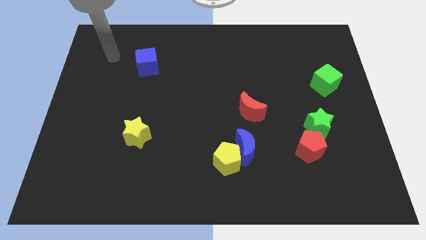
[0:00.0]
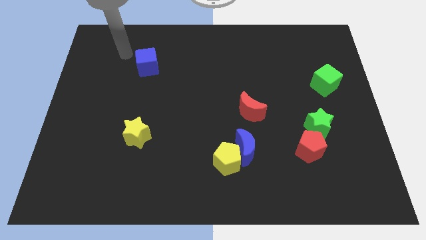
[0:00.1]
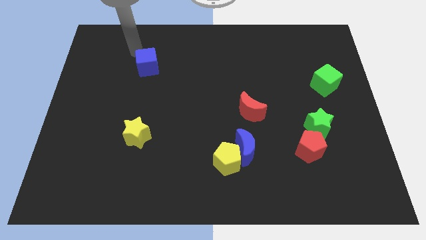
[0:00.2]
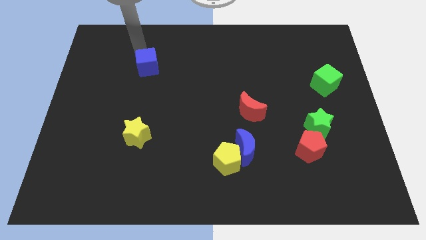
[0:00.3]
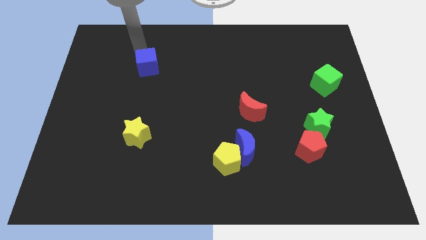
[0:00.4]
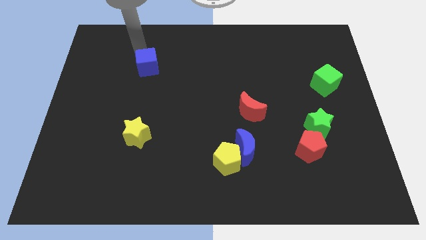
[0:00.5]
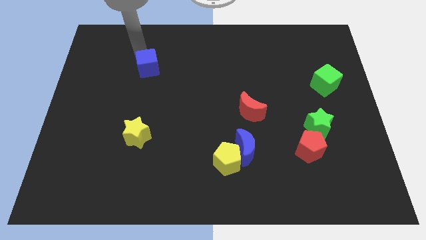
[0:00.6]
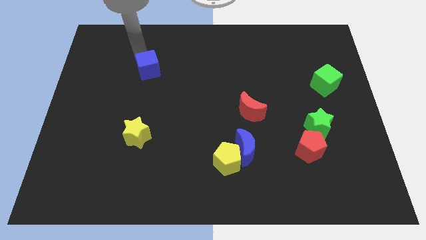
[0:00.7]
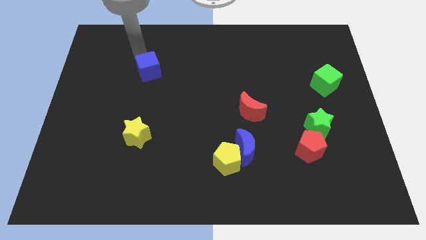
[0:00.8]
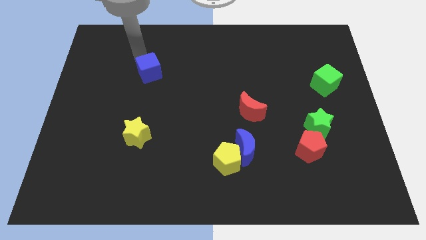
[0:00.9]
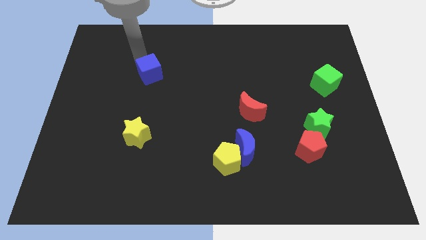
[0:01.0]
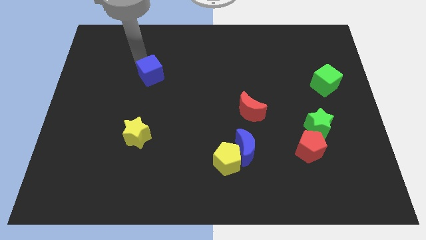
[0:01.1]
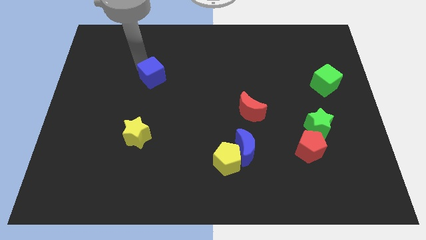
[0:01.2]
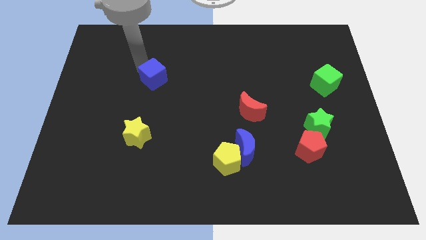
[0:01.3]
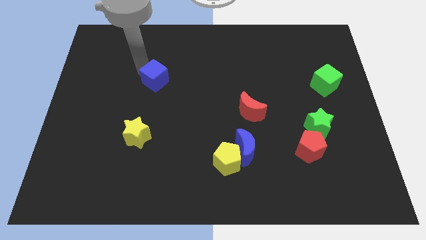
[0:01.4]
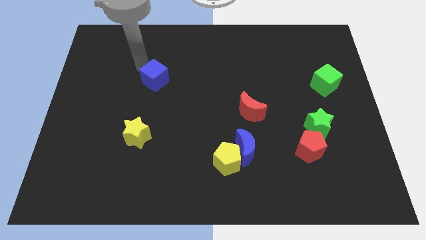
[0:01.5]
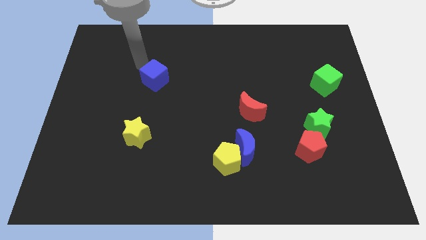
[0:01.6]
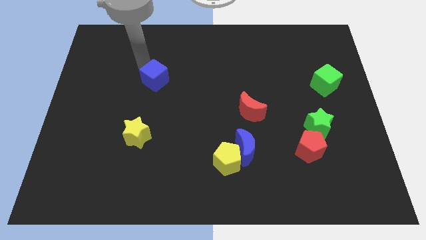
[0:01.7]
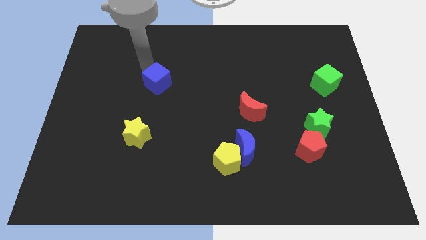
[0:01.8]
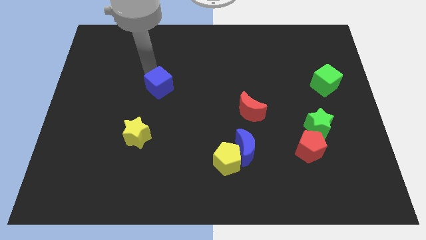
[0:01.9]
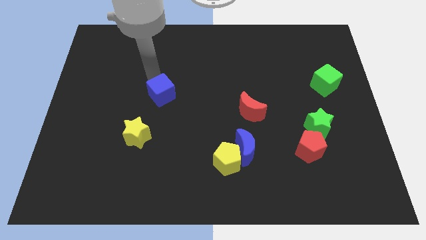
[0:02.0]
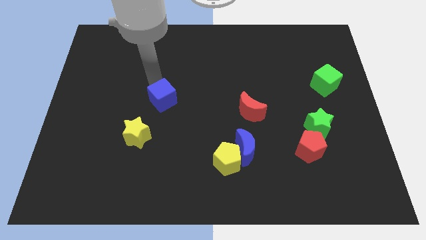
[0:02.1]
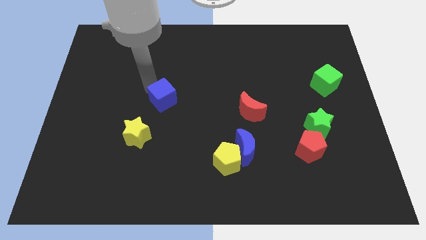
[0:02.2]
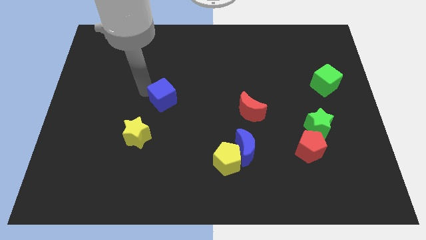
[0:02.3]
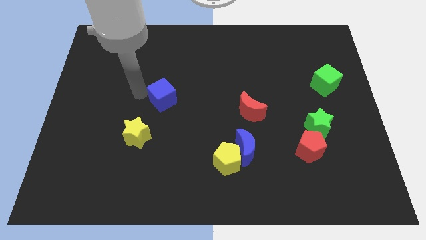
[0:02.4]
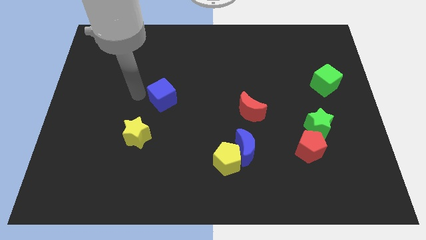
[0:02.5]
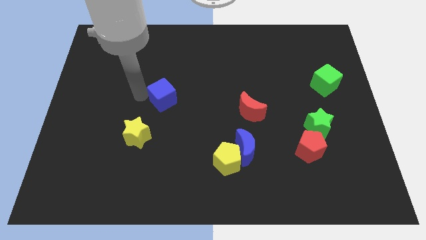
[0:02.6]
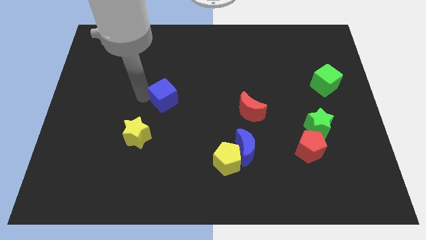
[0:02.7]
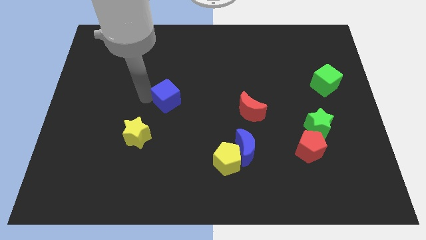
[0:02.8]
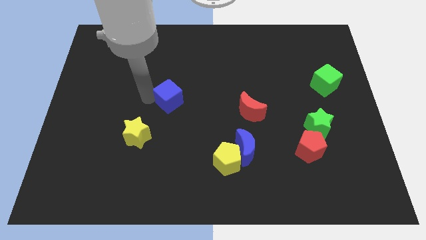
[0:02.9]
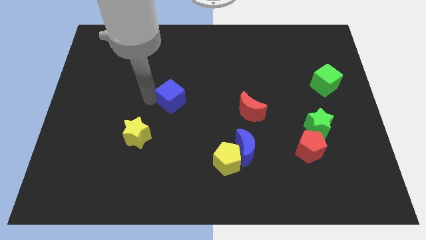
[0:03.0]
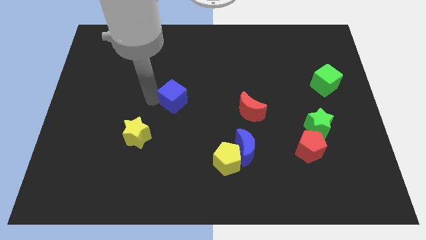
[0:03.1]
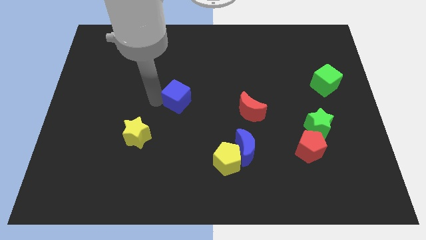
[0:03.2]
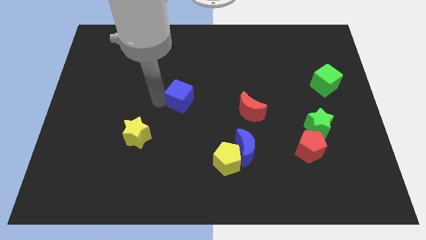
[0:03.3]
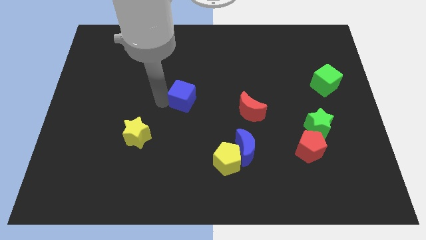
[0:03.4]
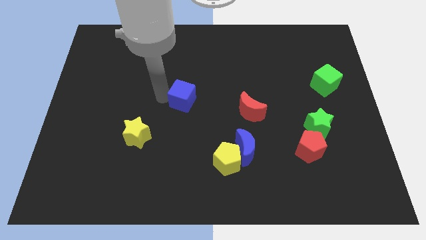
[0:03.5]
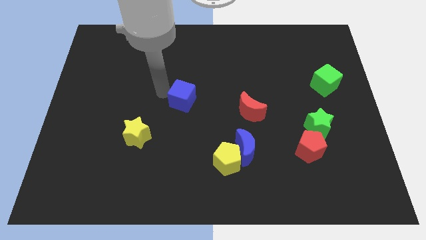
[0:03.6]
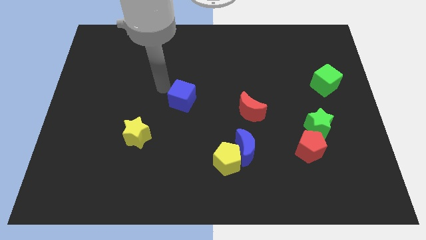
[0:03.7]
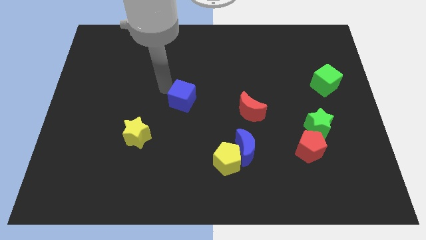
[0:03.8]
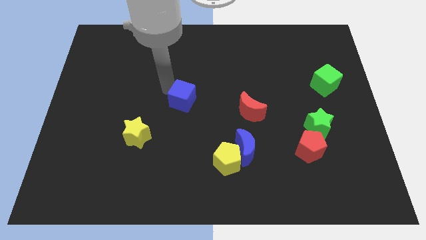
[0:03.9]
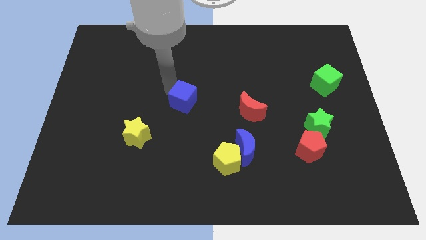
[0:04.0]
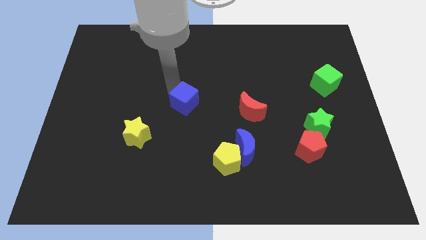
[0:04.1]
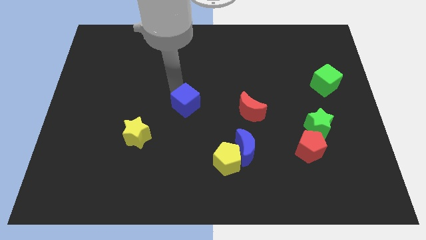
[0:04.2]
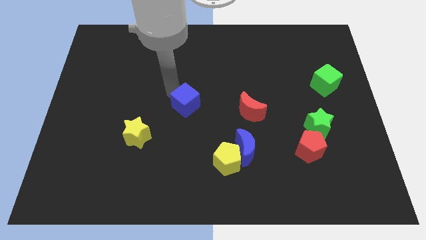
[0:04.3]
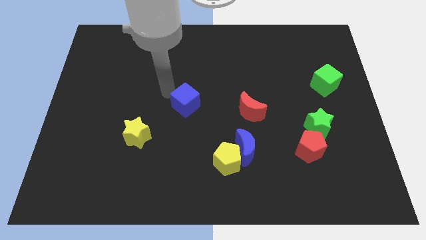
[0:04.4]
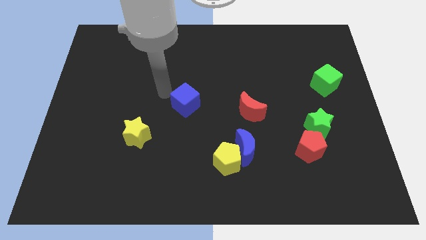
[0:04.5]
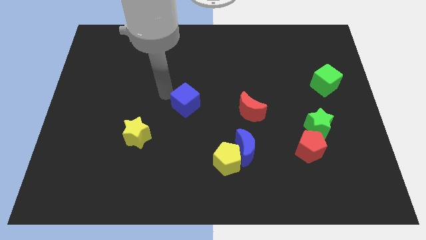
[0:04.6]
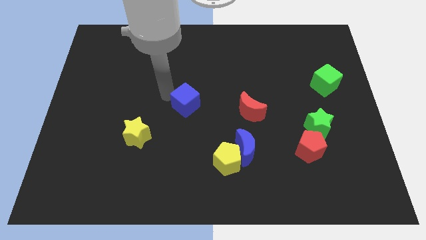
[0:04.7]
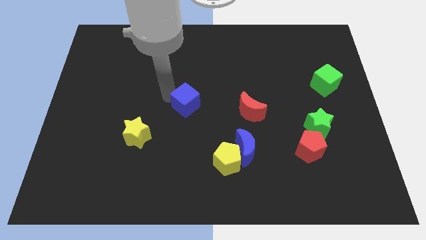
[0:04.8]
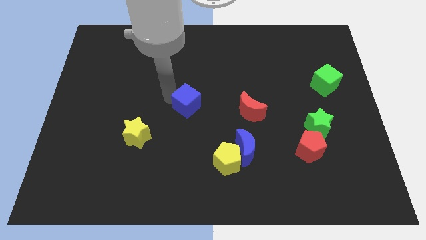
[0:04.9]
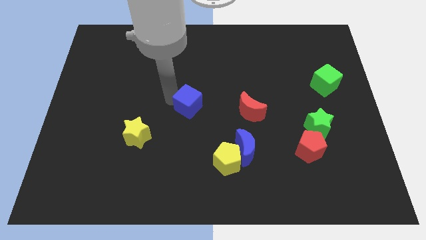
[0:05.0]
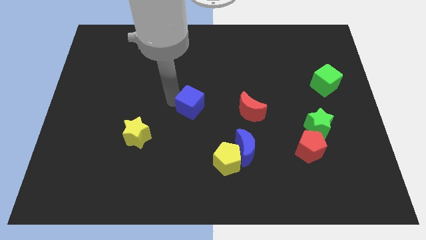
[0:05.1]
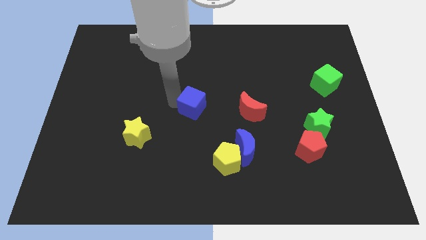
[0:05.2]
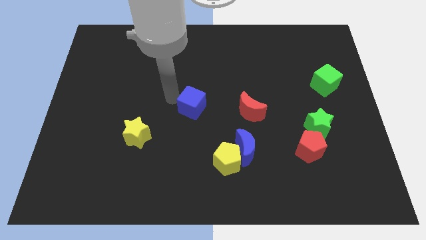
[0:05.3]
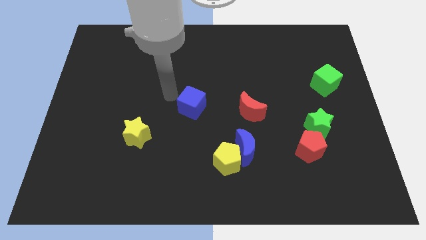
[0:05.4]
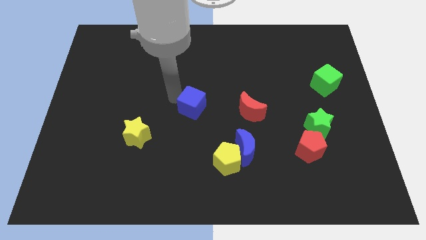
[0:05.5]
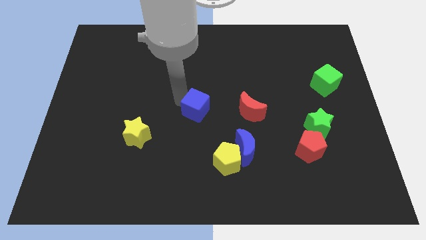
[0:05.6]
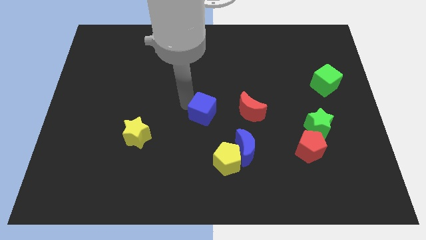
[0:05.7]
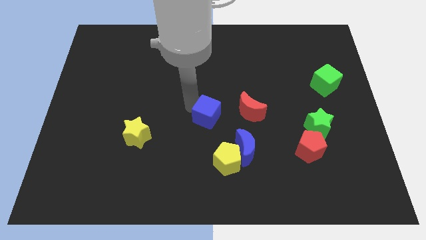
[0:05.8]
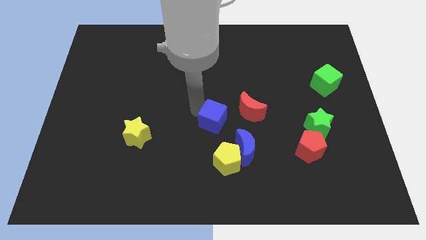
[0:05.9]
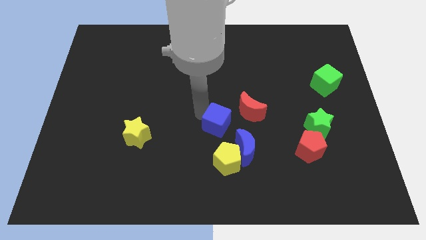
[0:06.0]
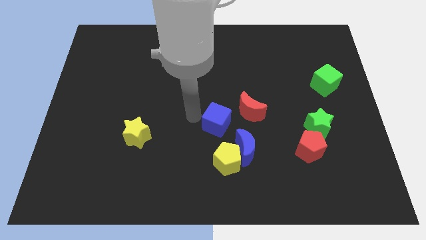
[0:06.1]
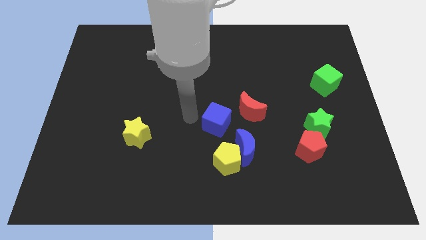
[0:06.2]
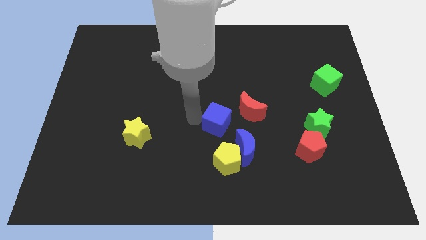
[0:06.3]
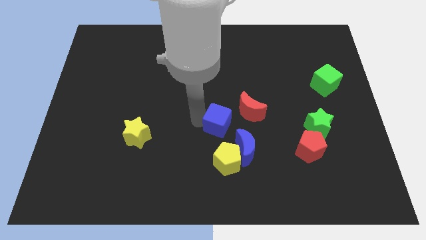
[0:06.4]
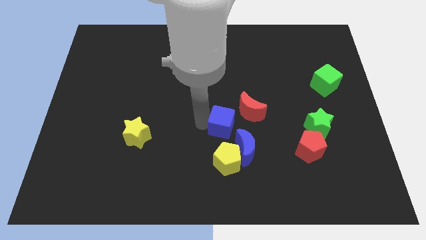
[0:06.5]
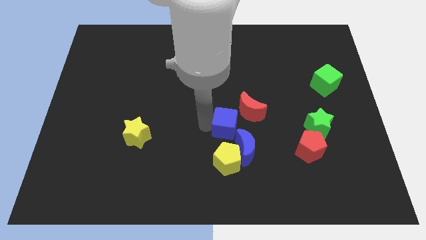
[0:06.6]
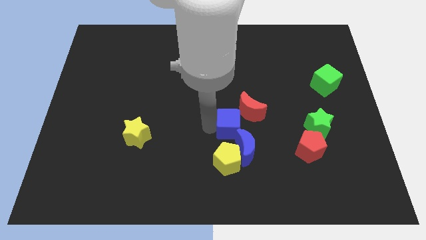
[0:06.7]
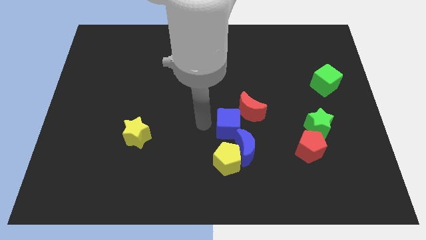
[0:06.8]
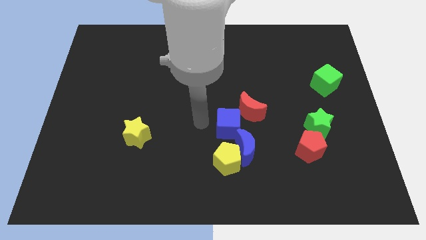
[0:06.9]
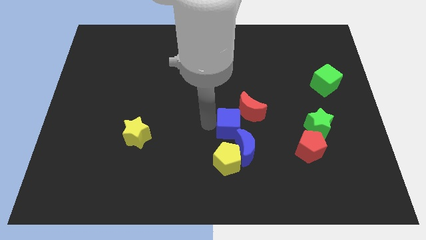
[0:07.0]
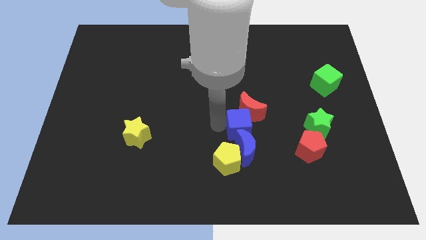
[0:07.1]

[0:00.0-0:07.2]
push the blue cube next to the blue moon

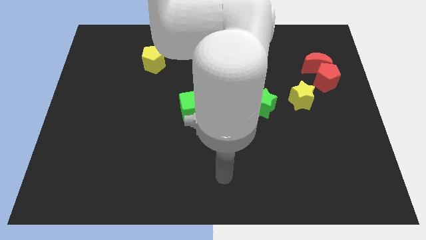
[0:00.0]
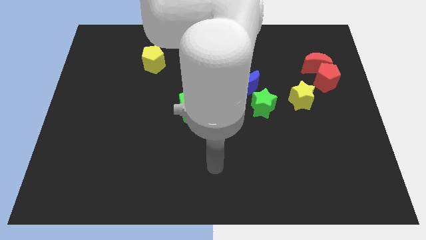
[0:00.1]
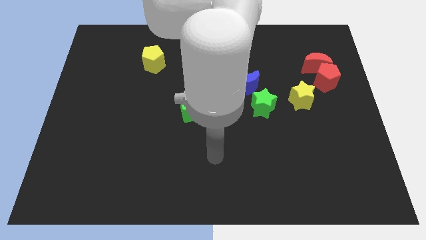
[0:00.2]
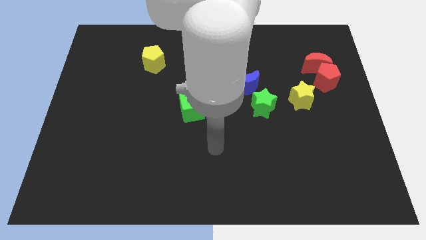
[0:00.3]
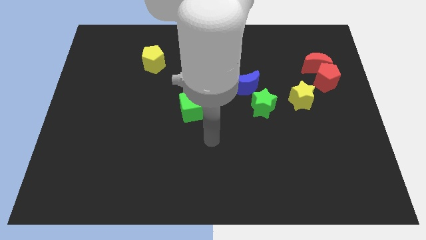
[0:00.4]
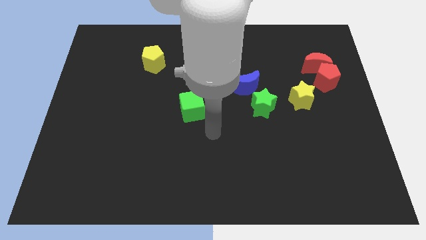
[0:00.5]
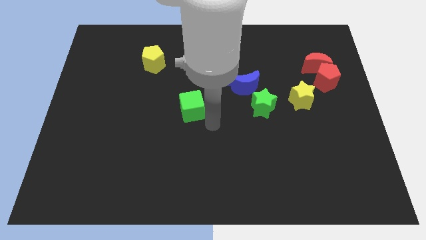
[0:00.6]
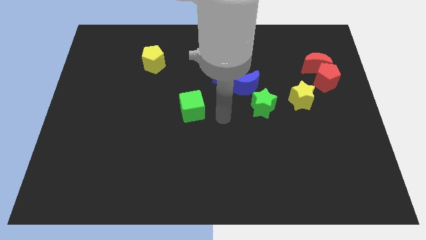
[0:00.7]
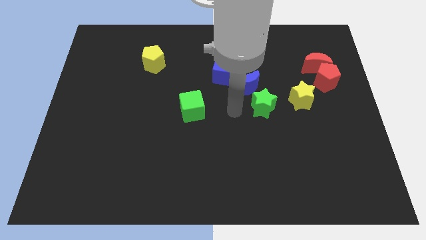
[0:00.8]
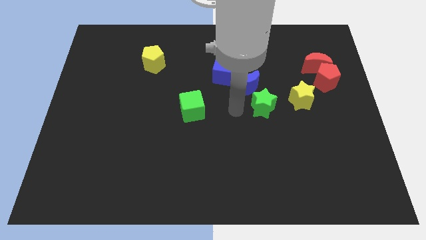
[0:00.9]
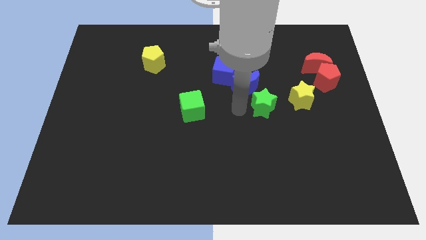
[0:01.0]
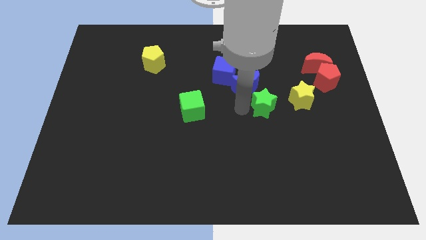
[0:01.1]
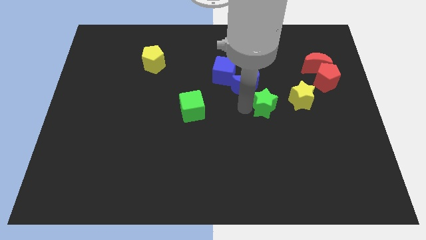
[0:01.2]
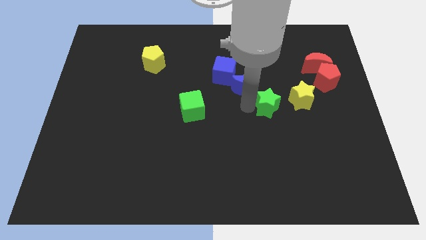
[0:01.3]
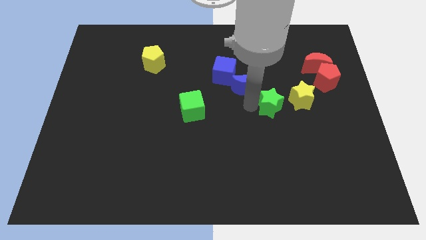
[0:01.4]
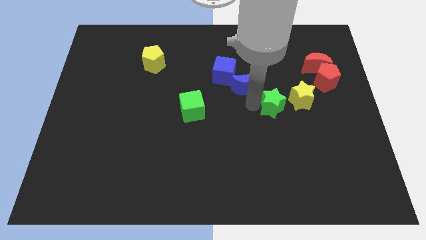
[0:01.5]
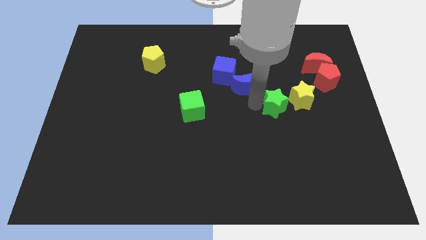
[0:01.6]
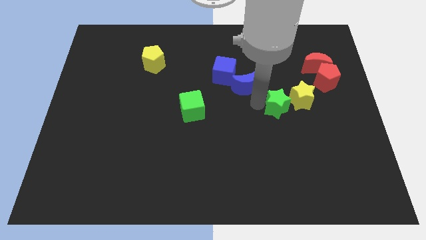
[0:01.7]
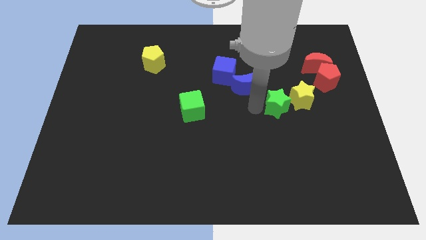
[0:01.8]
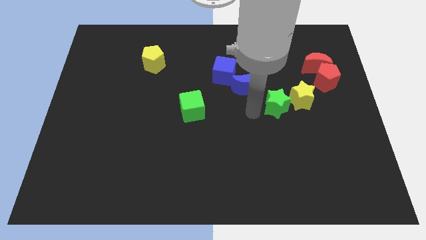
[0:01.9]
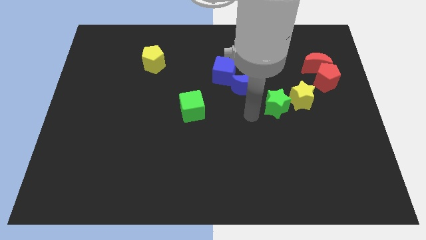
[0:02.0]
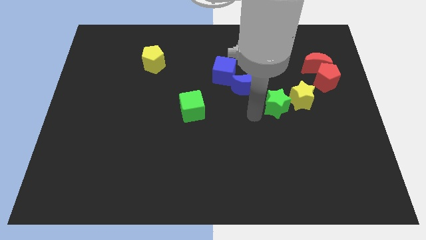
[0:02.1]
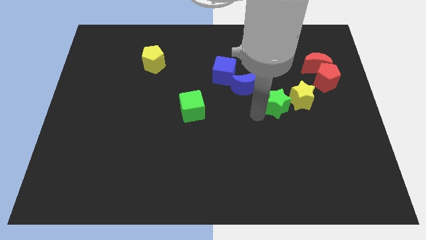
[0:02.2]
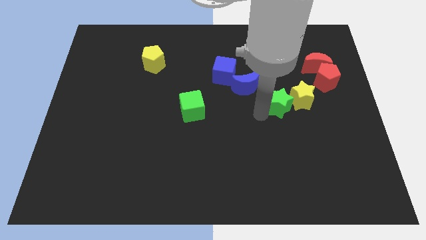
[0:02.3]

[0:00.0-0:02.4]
move the green star to the yellow star
